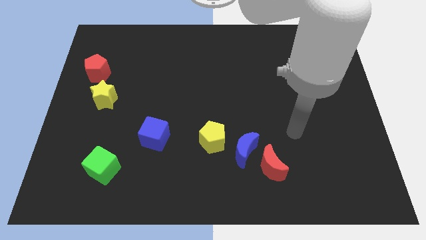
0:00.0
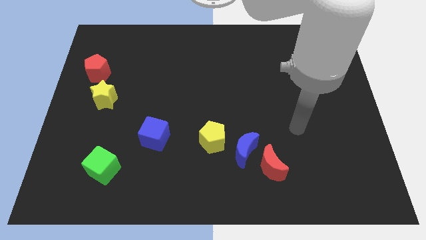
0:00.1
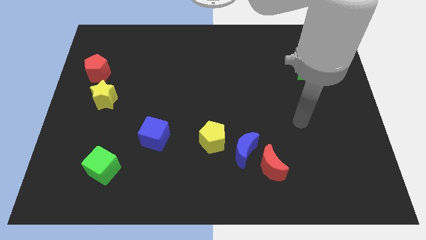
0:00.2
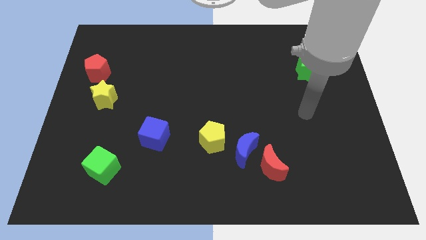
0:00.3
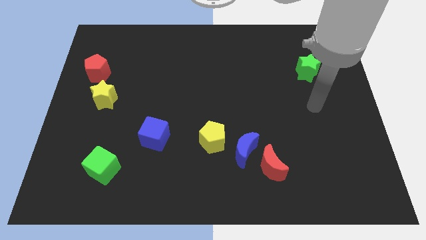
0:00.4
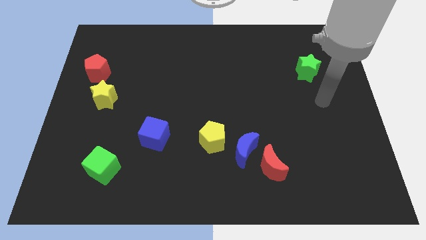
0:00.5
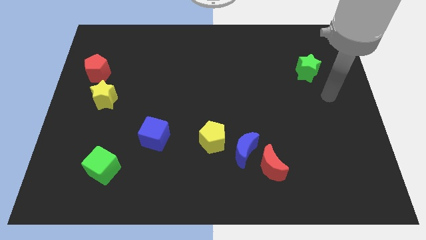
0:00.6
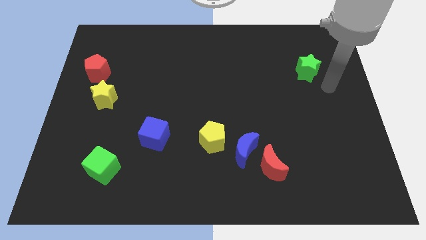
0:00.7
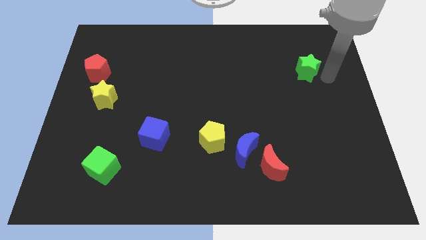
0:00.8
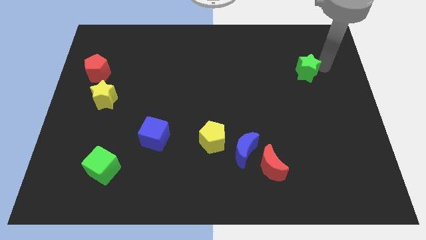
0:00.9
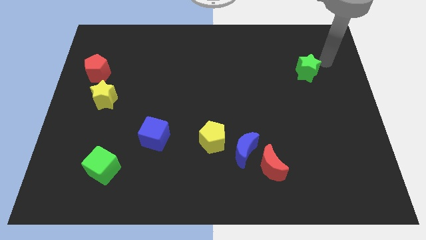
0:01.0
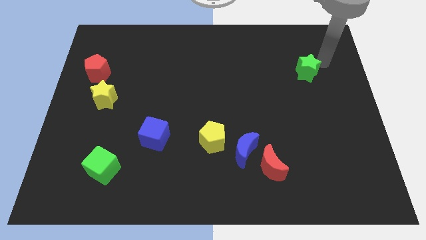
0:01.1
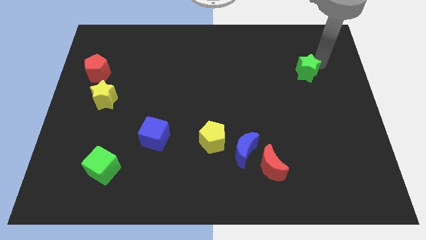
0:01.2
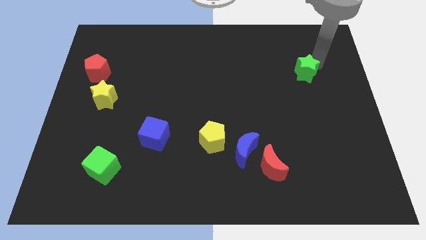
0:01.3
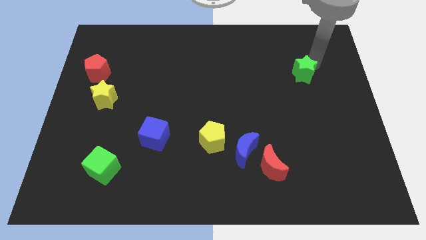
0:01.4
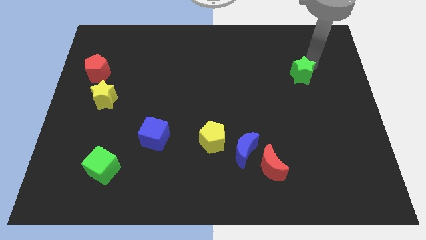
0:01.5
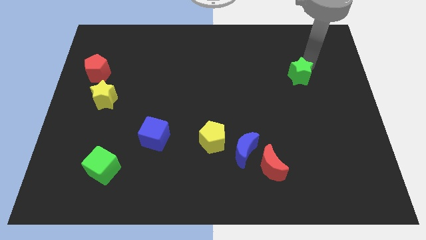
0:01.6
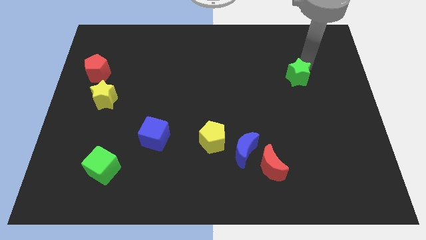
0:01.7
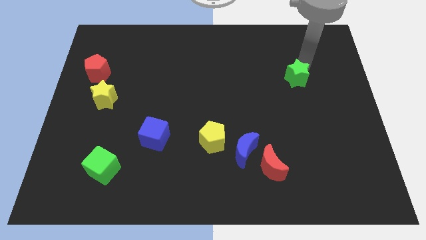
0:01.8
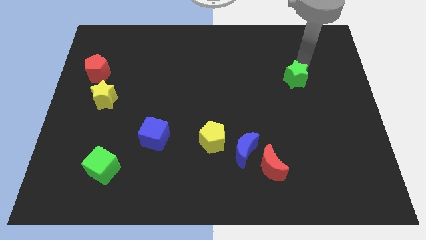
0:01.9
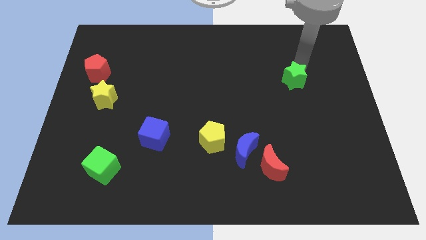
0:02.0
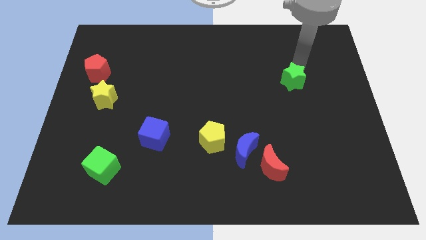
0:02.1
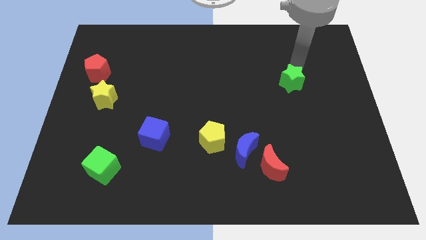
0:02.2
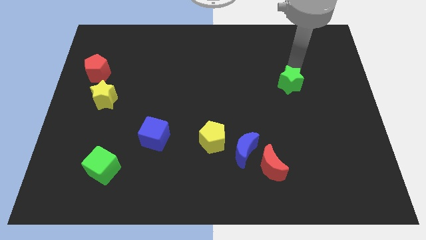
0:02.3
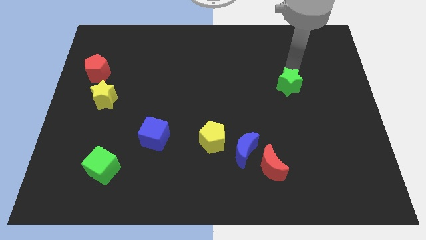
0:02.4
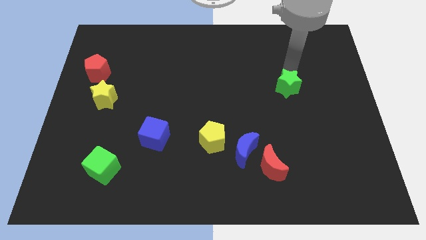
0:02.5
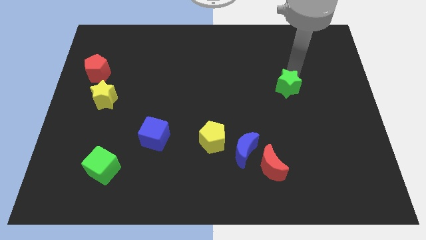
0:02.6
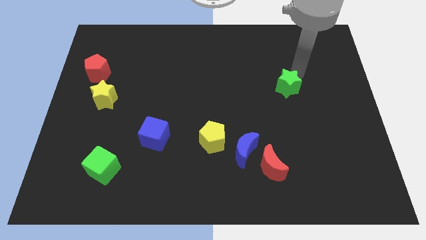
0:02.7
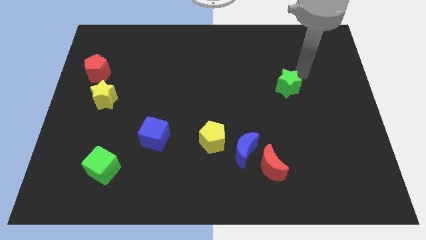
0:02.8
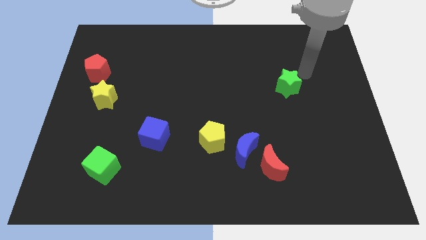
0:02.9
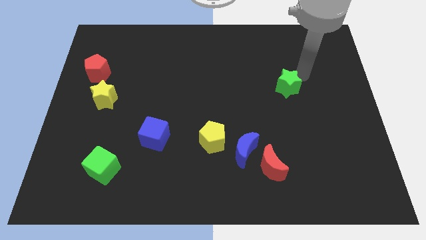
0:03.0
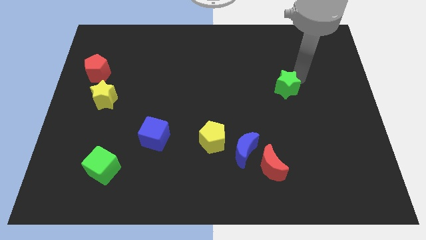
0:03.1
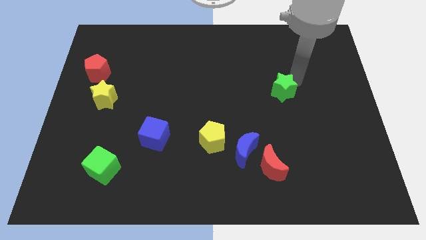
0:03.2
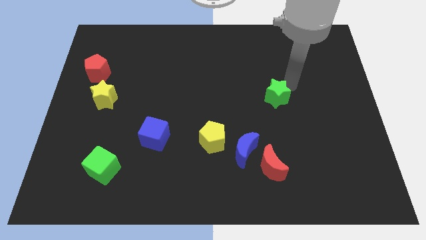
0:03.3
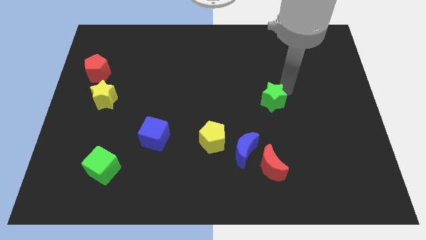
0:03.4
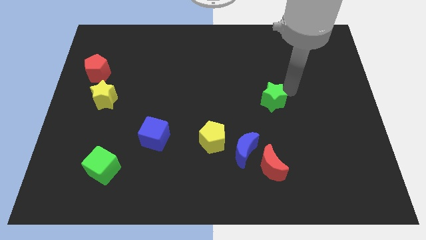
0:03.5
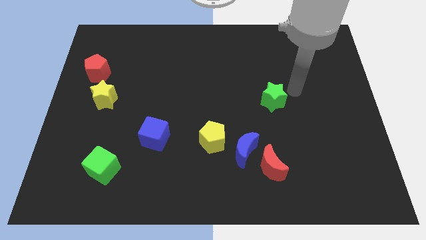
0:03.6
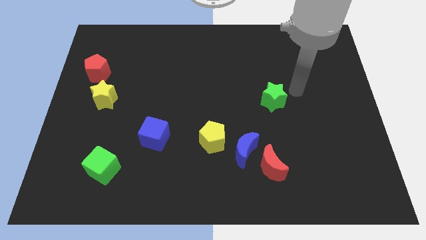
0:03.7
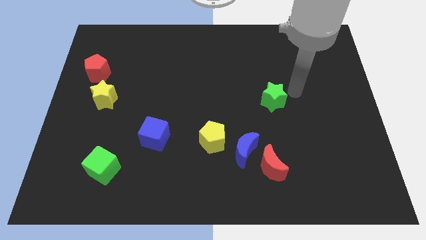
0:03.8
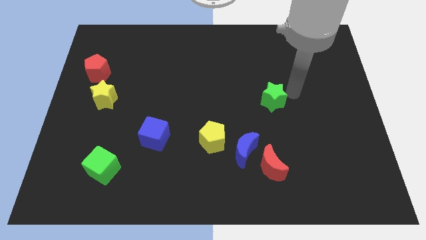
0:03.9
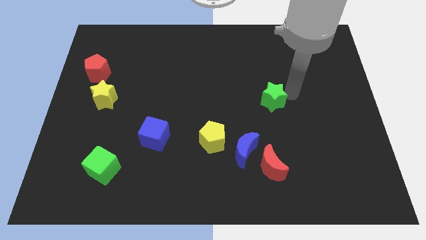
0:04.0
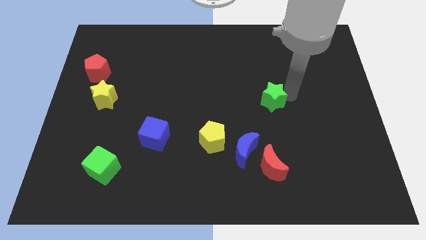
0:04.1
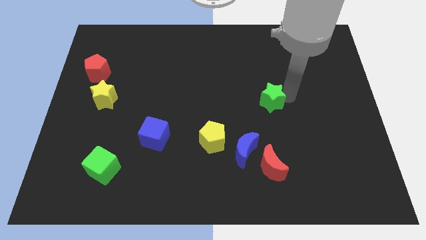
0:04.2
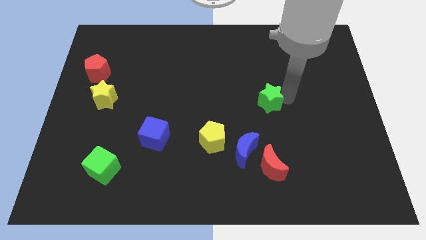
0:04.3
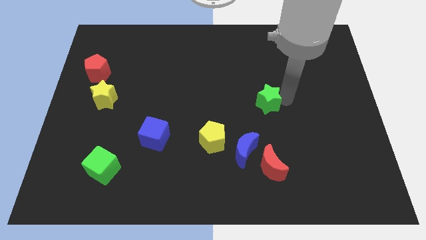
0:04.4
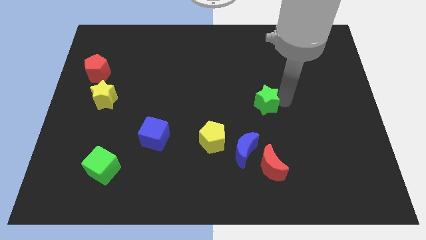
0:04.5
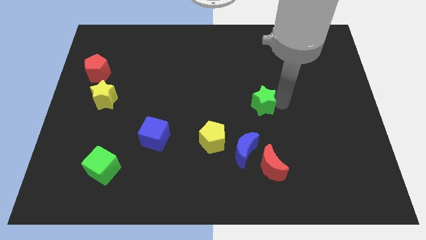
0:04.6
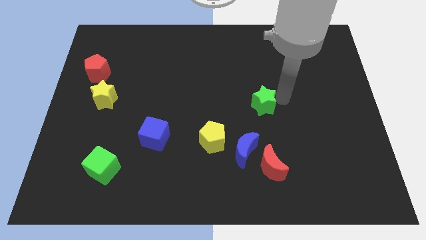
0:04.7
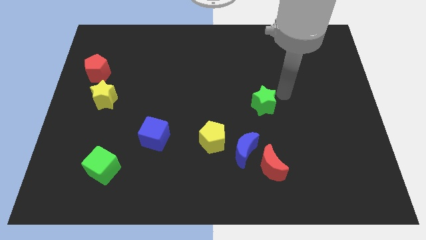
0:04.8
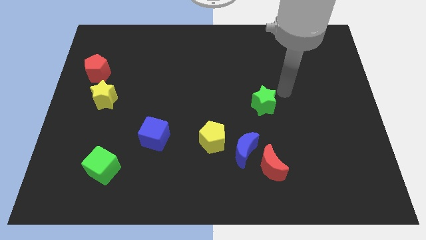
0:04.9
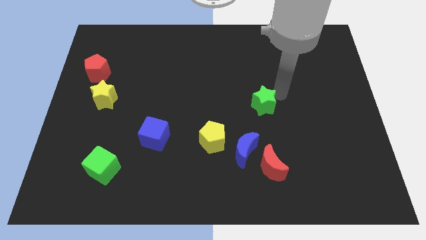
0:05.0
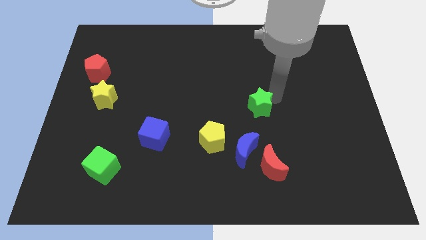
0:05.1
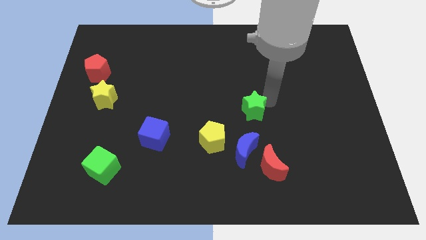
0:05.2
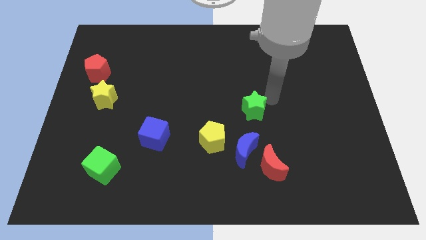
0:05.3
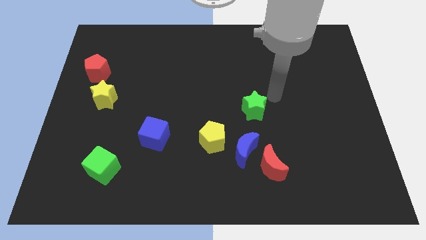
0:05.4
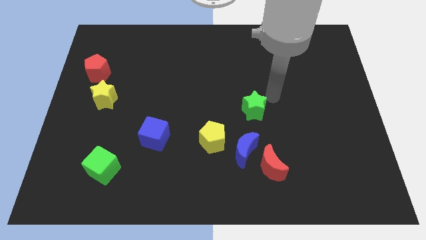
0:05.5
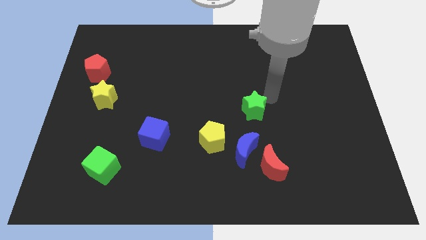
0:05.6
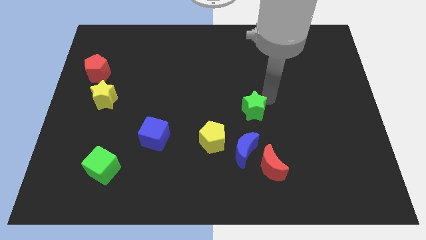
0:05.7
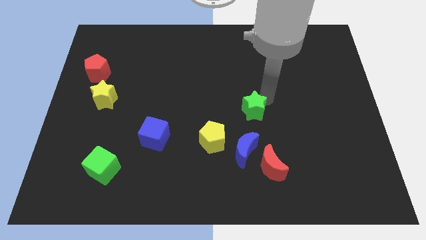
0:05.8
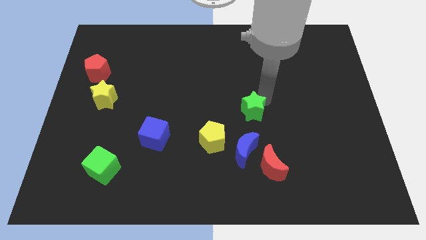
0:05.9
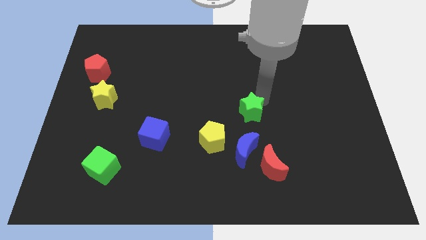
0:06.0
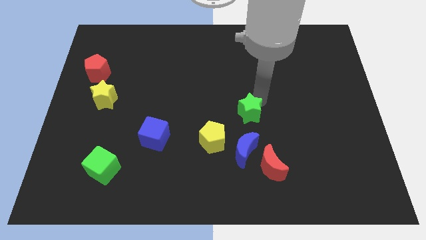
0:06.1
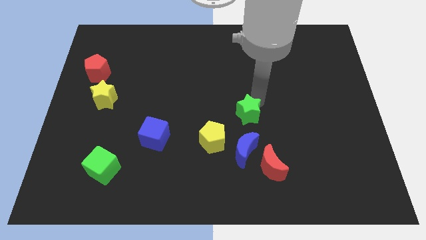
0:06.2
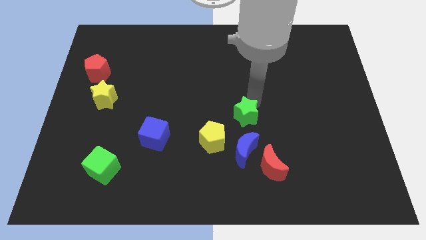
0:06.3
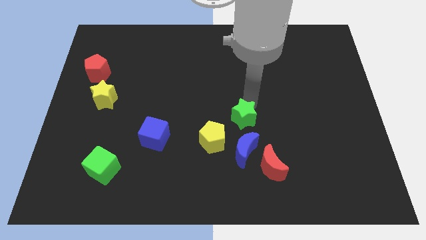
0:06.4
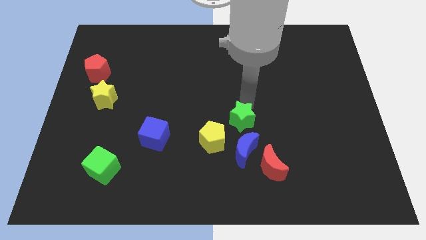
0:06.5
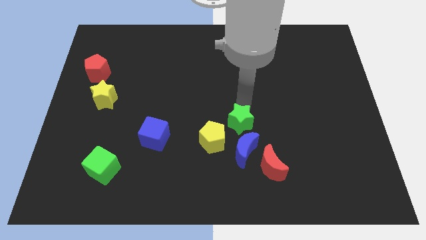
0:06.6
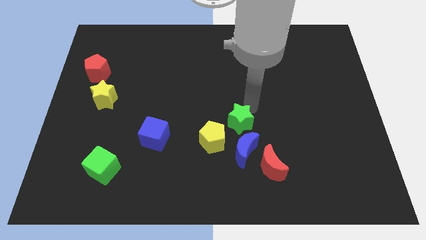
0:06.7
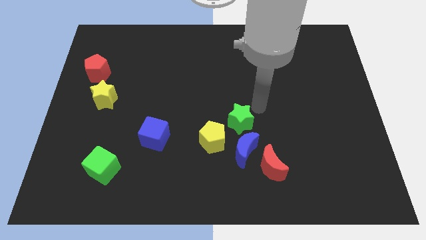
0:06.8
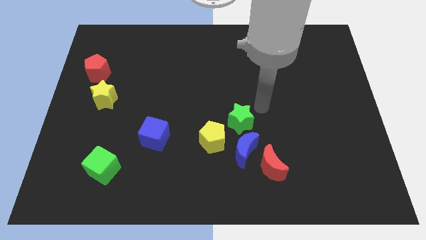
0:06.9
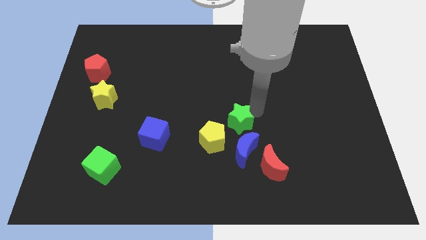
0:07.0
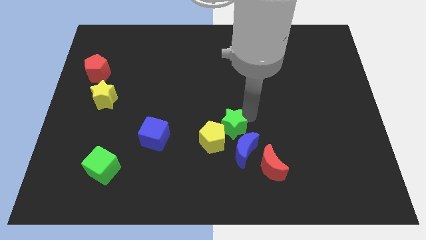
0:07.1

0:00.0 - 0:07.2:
move the green star towards the yellow pentagon

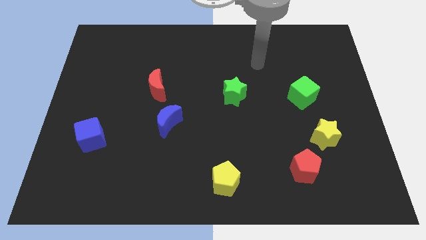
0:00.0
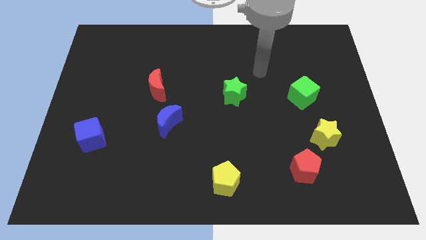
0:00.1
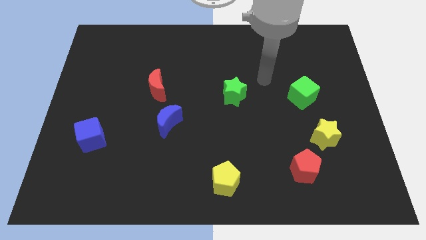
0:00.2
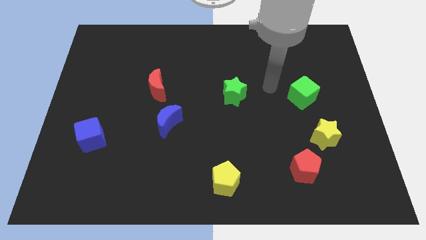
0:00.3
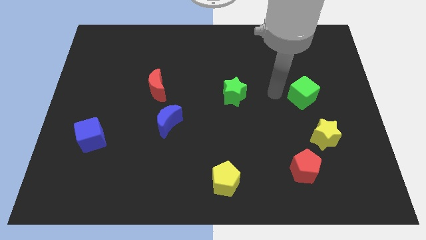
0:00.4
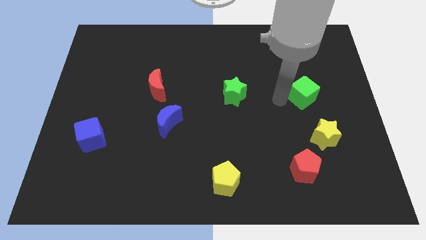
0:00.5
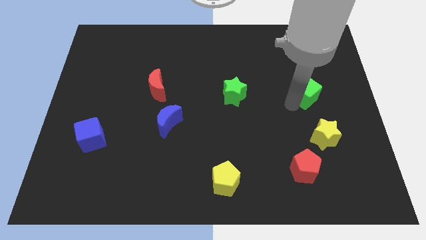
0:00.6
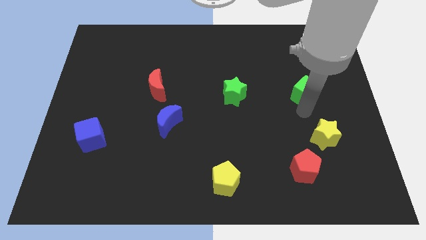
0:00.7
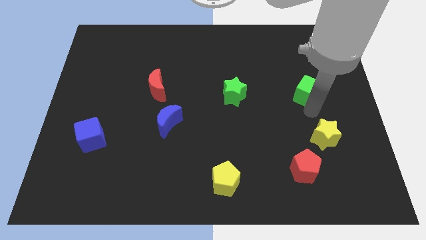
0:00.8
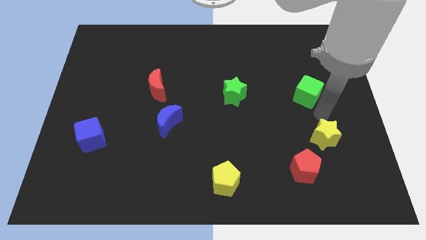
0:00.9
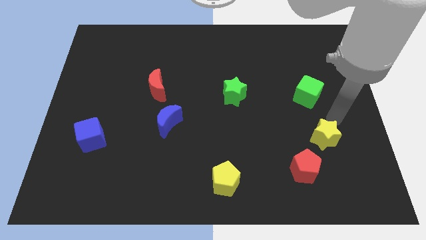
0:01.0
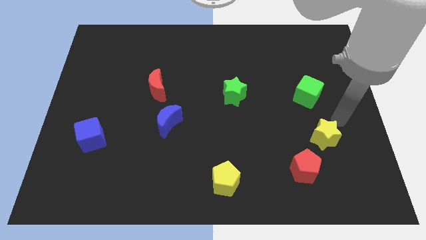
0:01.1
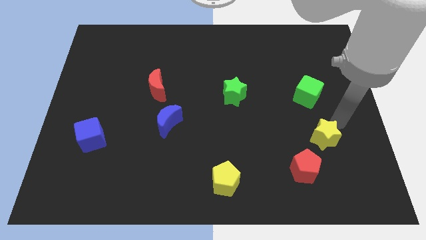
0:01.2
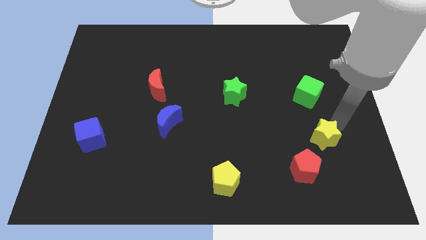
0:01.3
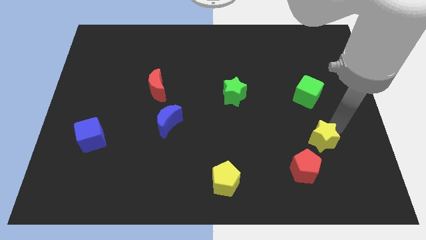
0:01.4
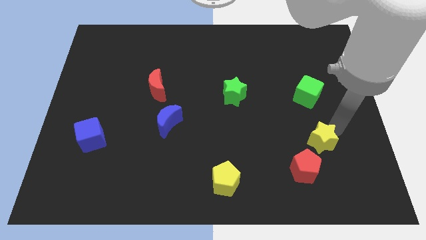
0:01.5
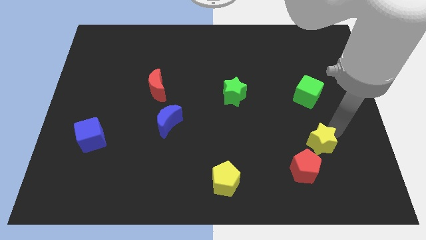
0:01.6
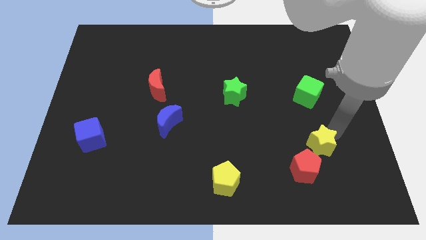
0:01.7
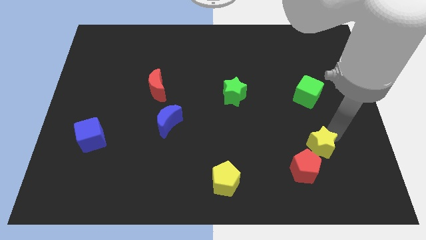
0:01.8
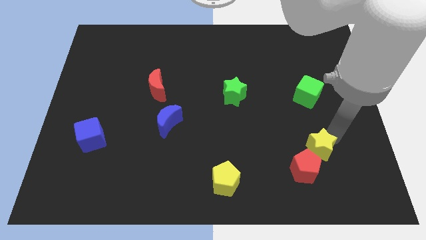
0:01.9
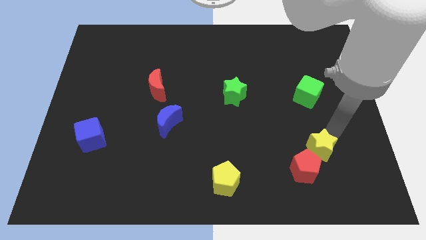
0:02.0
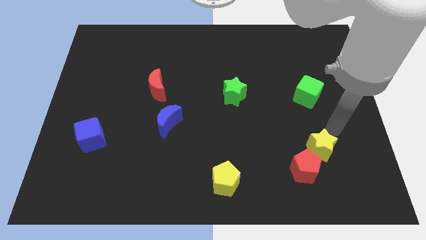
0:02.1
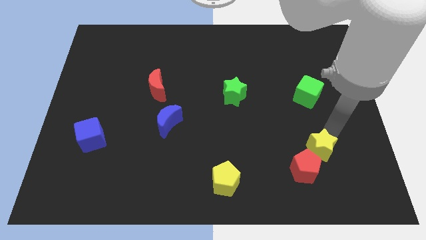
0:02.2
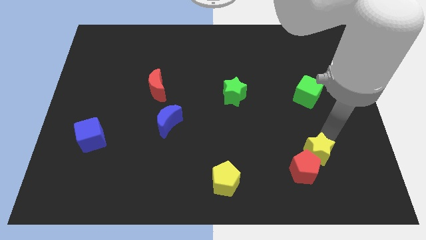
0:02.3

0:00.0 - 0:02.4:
put the yellow star towards the red pentagon
